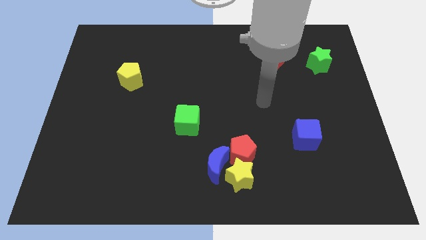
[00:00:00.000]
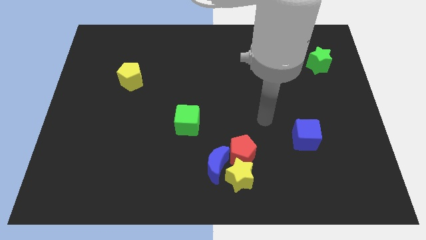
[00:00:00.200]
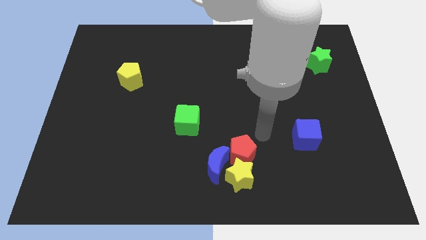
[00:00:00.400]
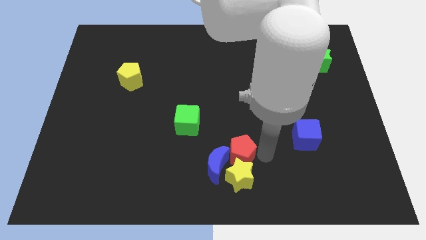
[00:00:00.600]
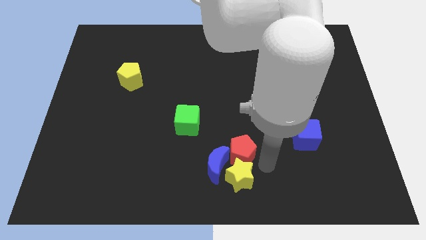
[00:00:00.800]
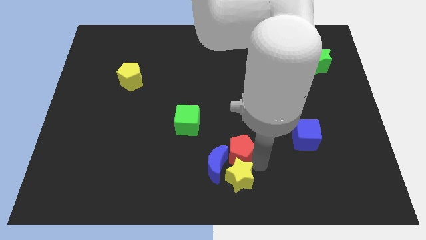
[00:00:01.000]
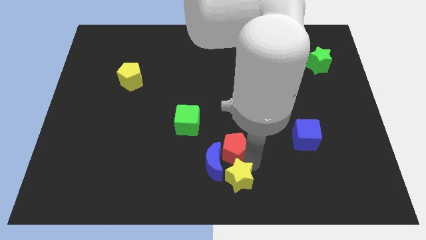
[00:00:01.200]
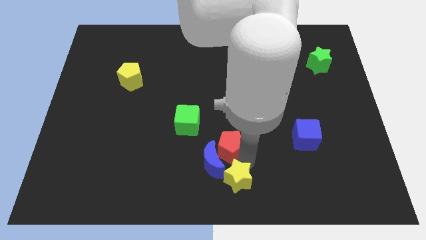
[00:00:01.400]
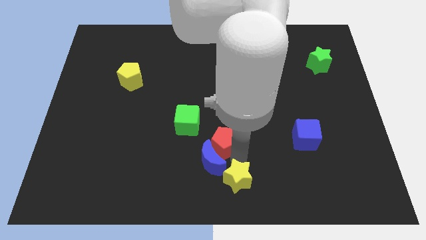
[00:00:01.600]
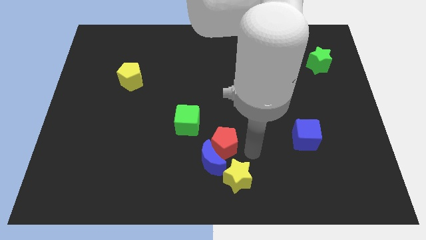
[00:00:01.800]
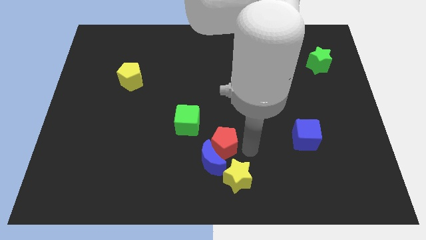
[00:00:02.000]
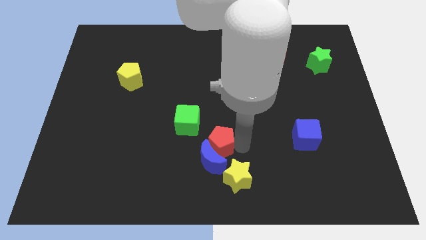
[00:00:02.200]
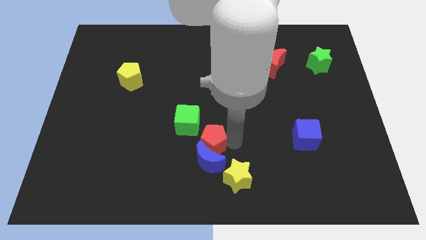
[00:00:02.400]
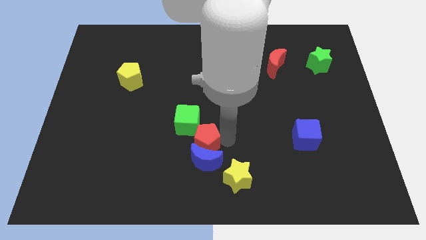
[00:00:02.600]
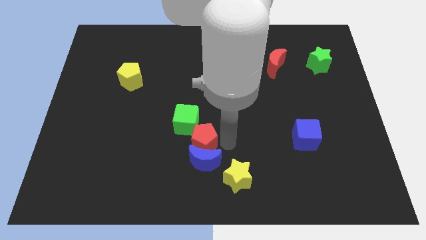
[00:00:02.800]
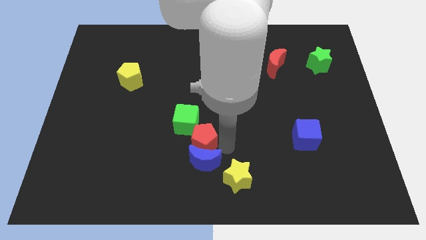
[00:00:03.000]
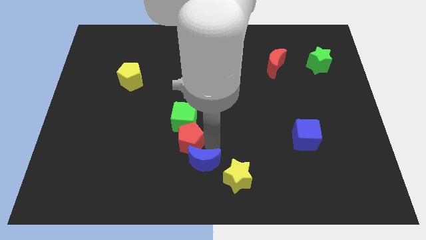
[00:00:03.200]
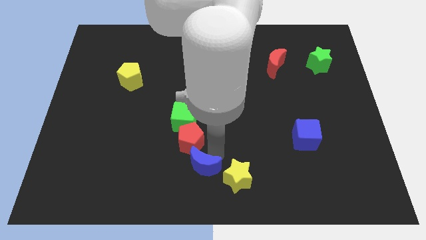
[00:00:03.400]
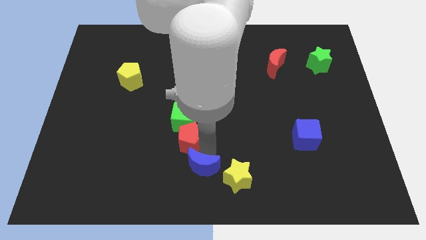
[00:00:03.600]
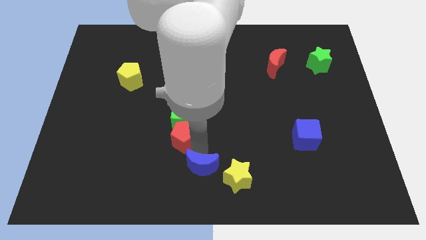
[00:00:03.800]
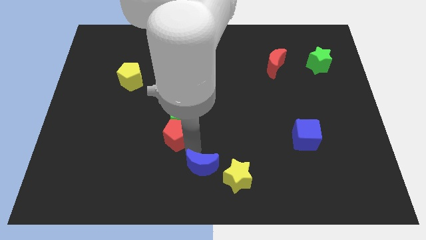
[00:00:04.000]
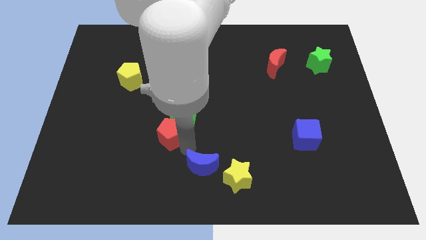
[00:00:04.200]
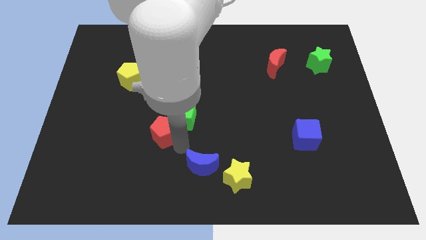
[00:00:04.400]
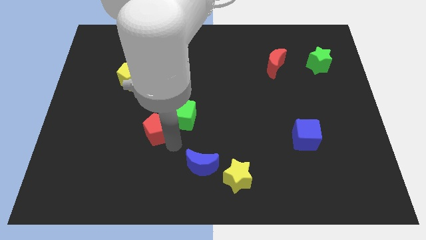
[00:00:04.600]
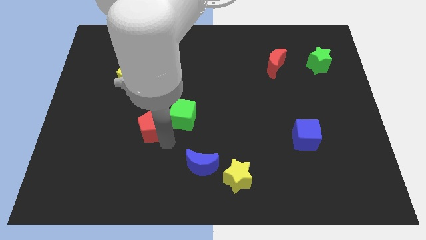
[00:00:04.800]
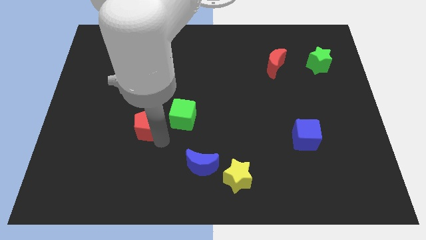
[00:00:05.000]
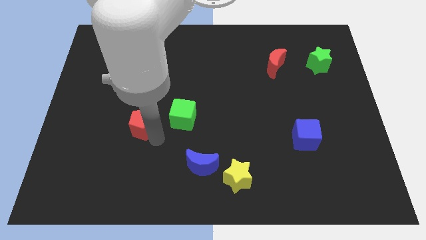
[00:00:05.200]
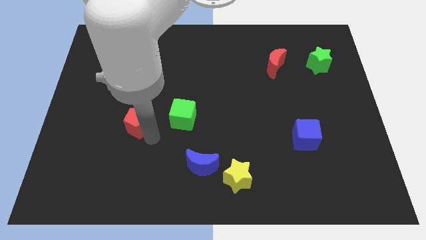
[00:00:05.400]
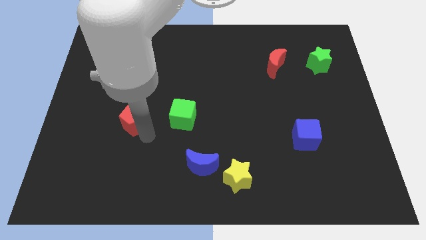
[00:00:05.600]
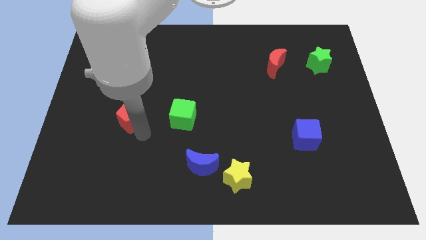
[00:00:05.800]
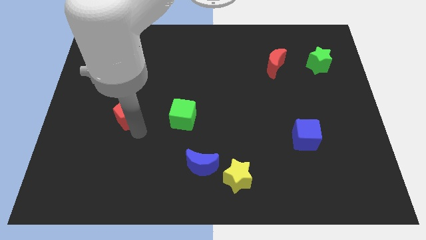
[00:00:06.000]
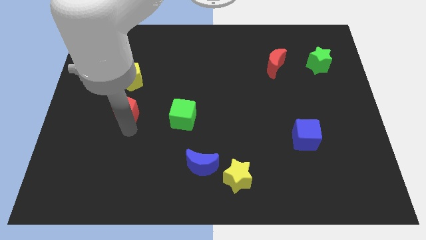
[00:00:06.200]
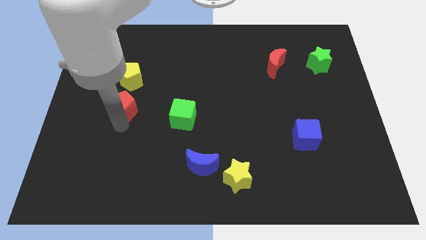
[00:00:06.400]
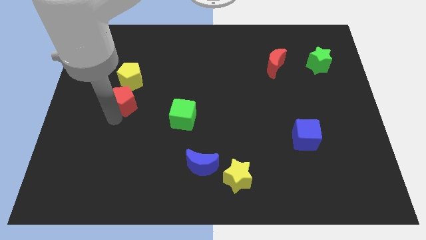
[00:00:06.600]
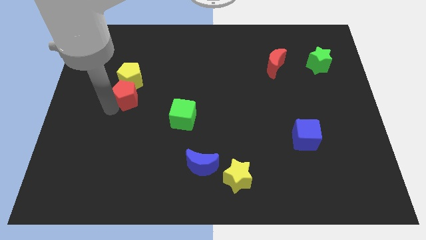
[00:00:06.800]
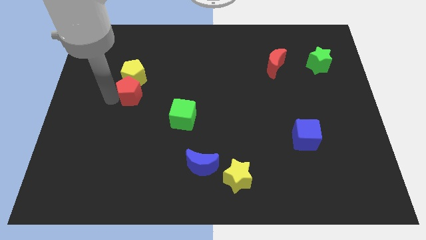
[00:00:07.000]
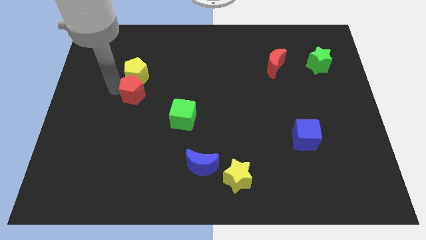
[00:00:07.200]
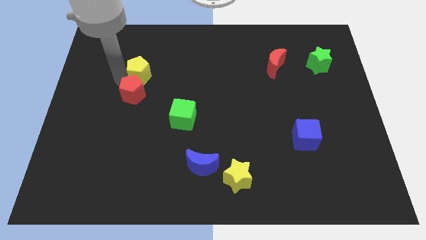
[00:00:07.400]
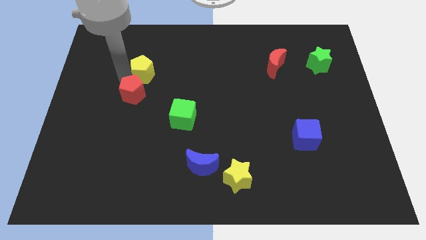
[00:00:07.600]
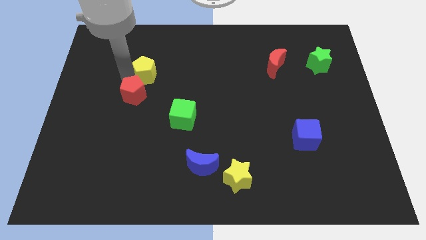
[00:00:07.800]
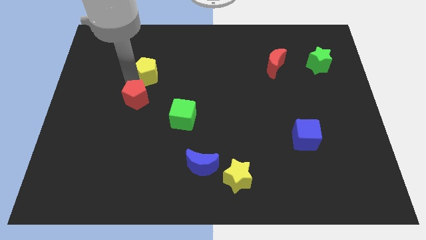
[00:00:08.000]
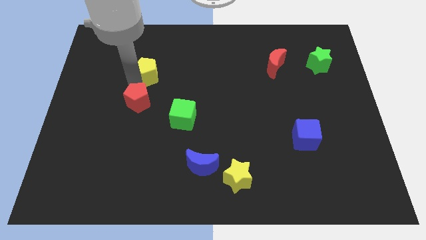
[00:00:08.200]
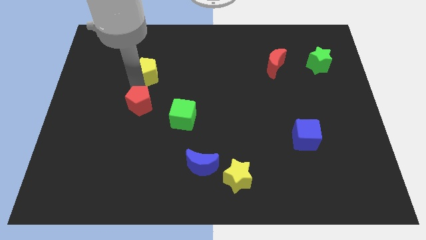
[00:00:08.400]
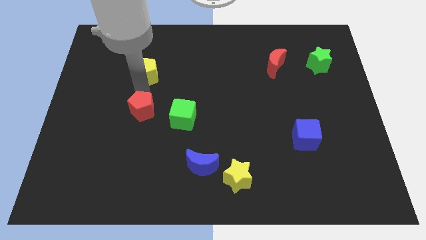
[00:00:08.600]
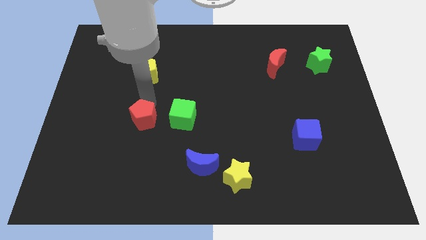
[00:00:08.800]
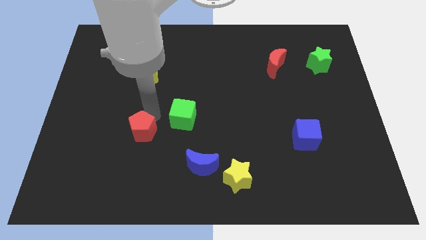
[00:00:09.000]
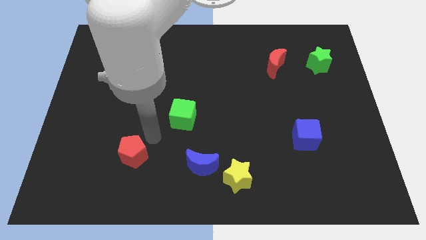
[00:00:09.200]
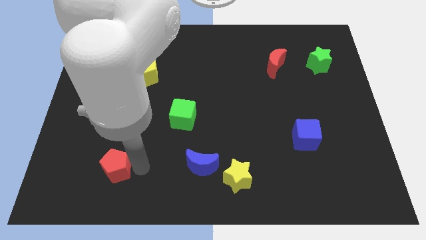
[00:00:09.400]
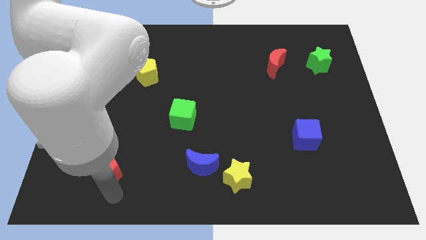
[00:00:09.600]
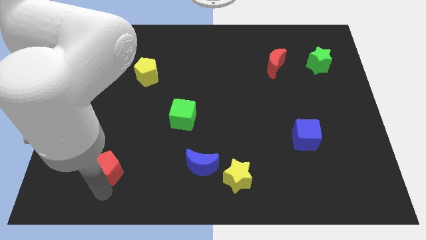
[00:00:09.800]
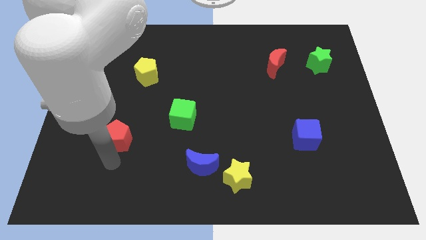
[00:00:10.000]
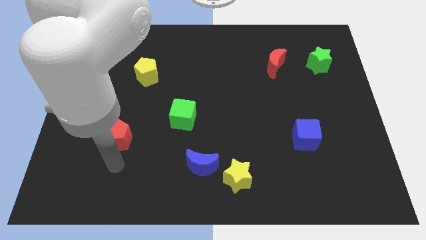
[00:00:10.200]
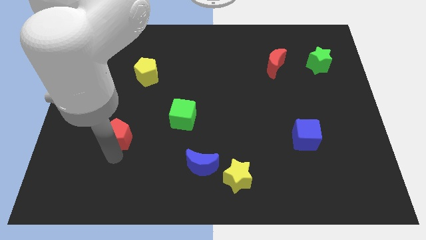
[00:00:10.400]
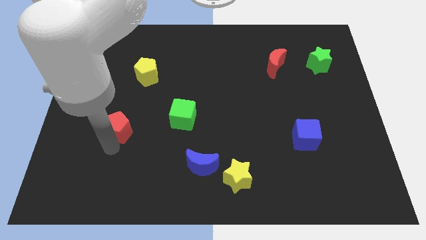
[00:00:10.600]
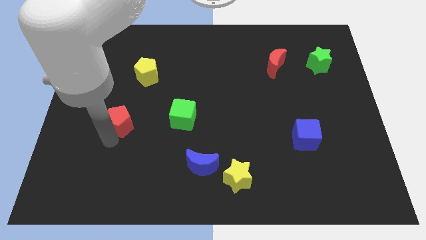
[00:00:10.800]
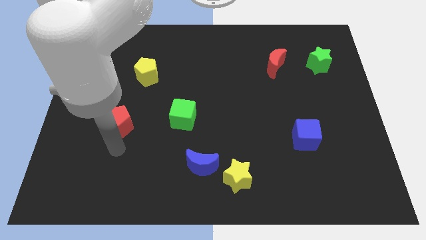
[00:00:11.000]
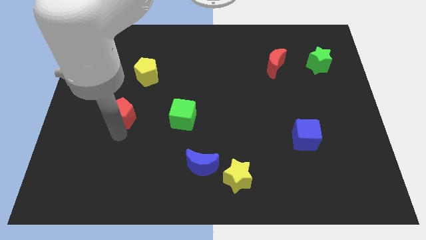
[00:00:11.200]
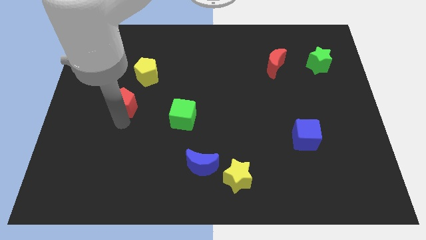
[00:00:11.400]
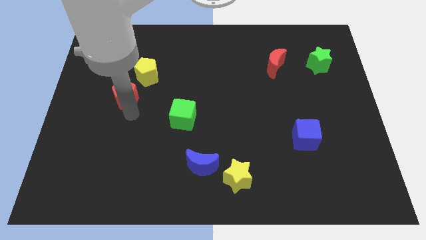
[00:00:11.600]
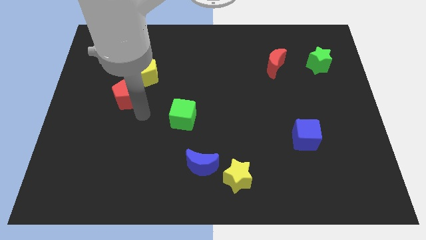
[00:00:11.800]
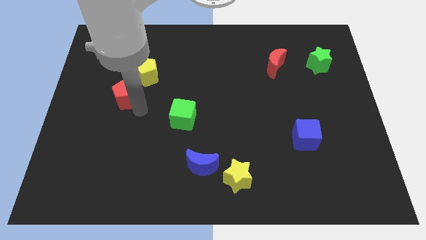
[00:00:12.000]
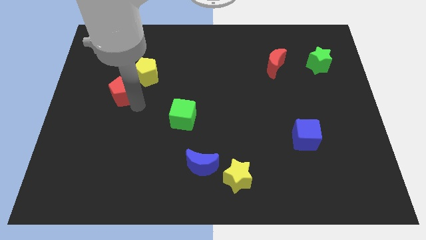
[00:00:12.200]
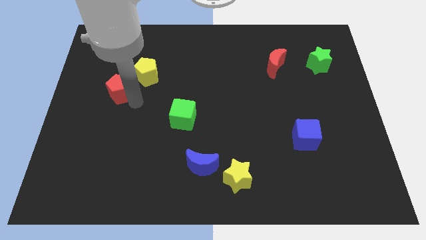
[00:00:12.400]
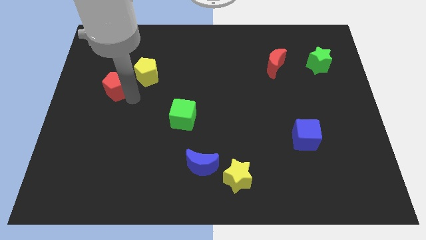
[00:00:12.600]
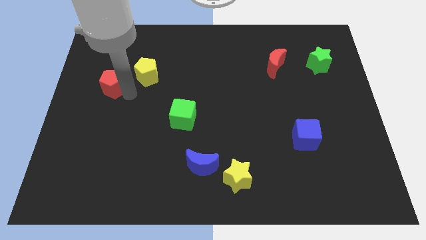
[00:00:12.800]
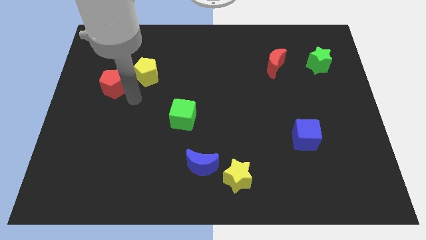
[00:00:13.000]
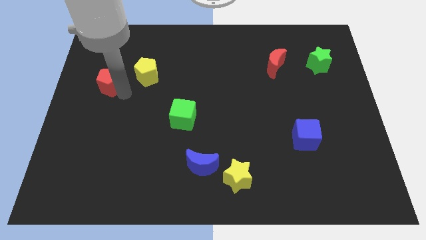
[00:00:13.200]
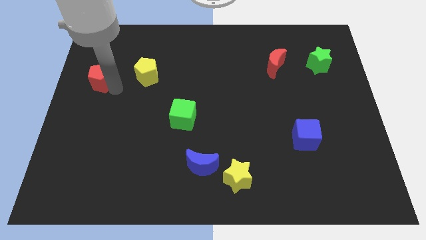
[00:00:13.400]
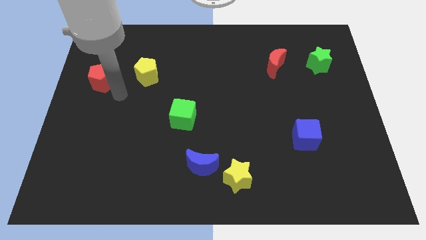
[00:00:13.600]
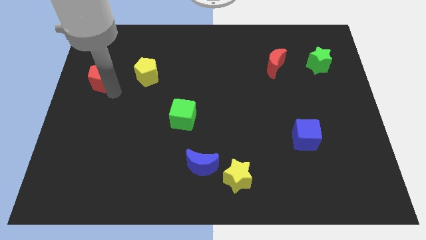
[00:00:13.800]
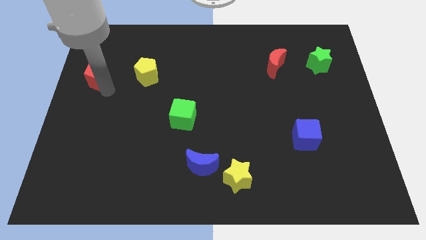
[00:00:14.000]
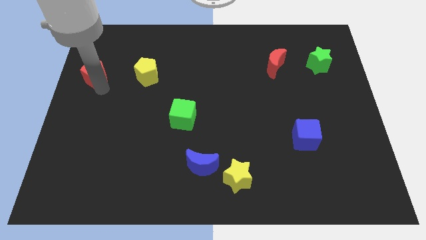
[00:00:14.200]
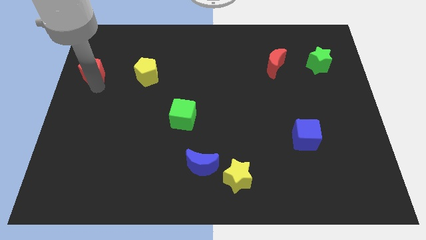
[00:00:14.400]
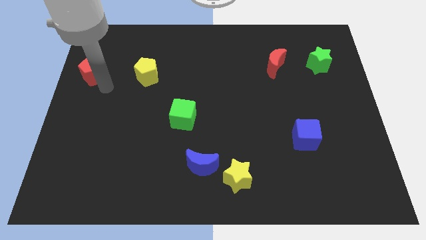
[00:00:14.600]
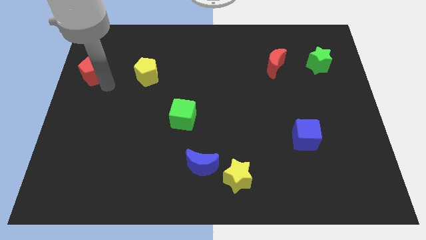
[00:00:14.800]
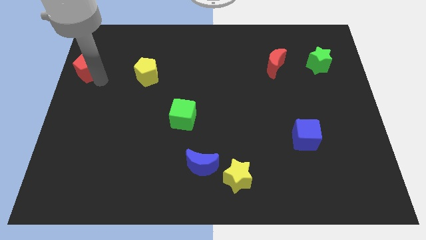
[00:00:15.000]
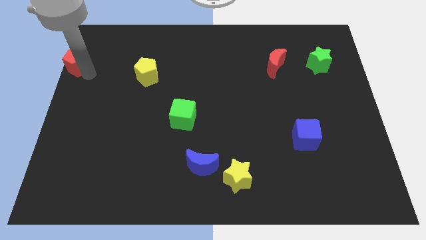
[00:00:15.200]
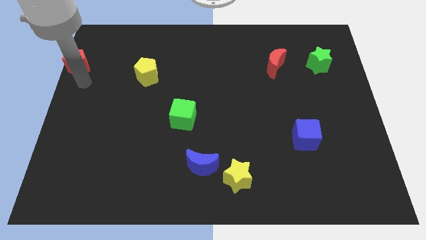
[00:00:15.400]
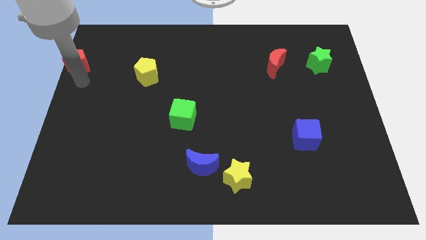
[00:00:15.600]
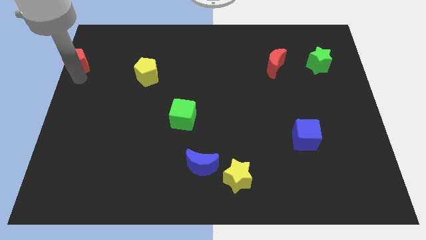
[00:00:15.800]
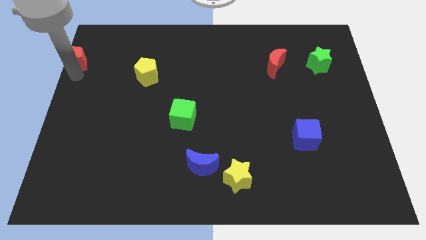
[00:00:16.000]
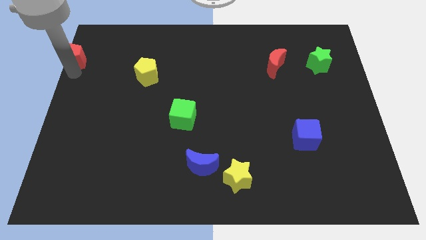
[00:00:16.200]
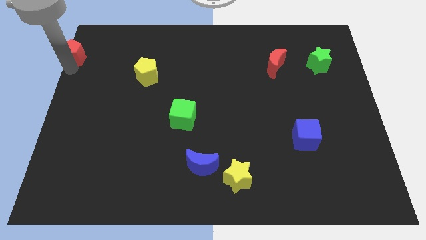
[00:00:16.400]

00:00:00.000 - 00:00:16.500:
move the red pentagon to the top left of the board
